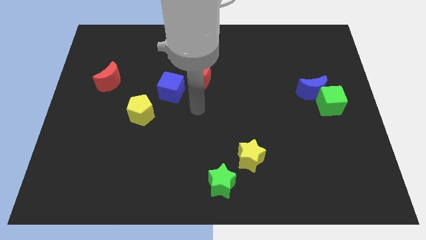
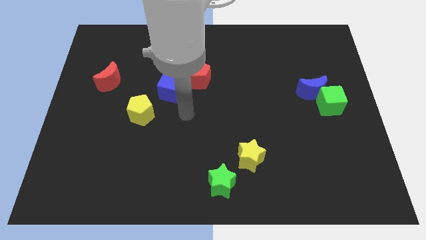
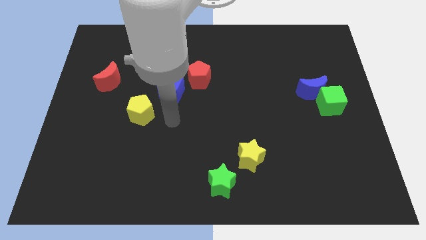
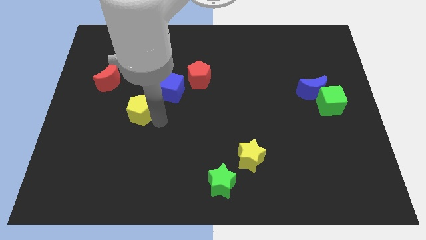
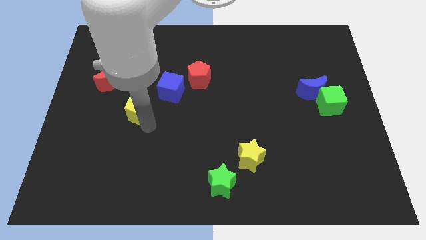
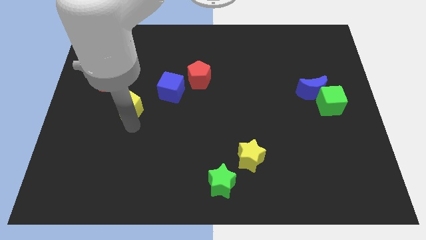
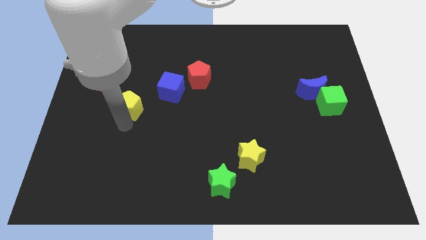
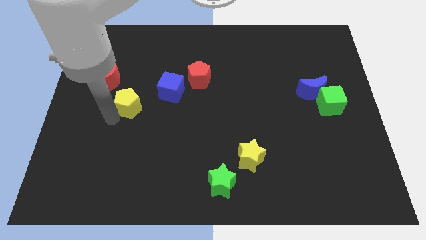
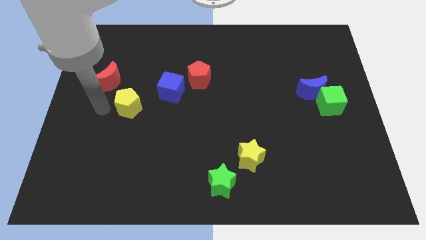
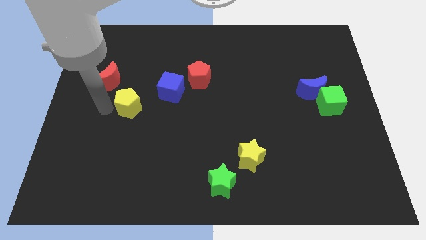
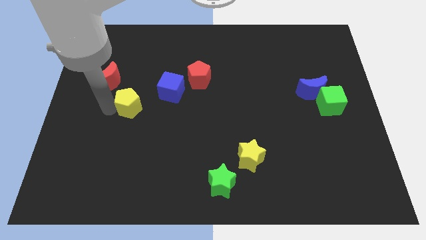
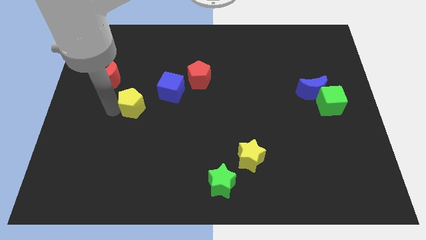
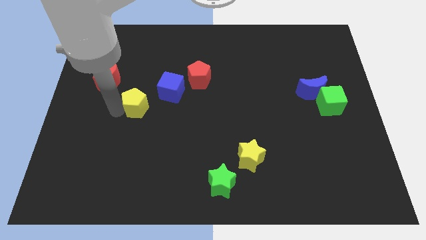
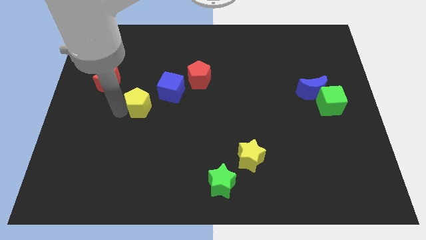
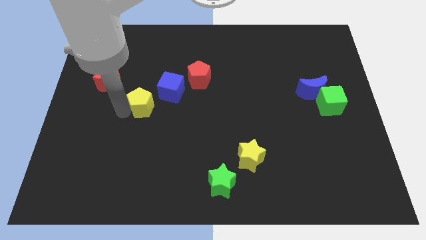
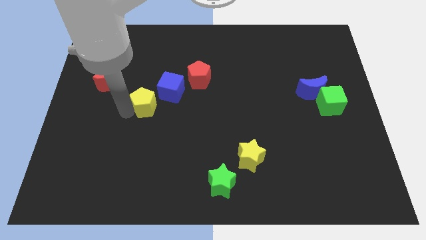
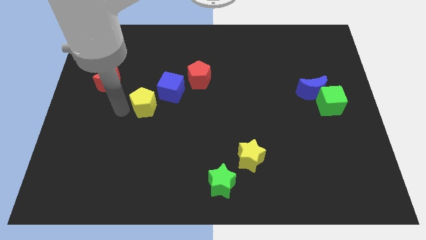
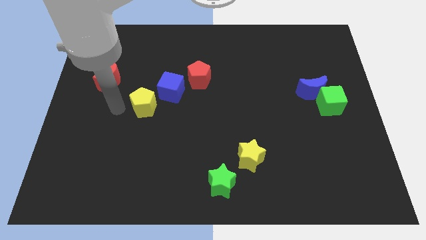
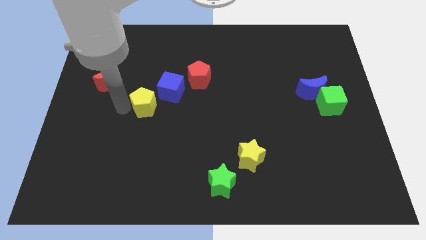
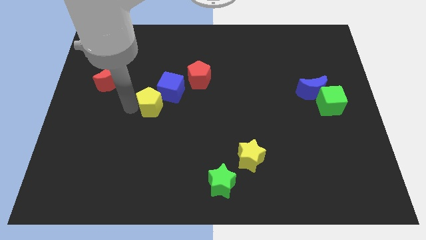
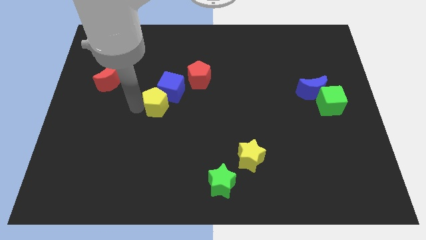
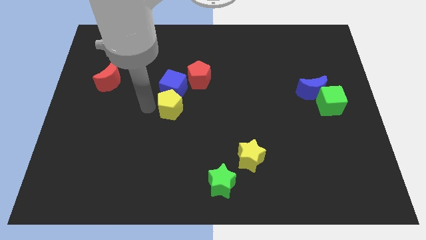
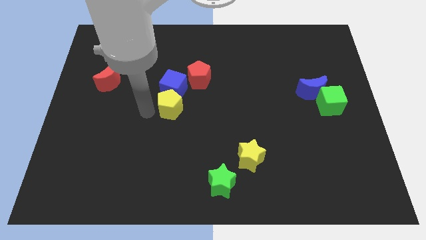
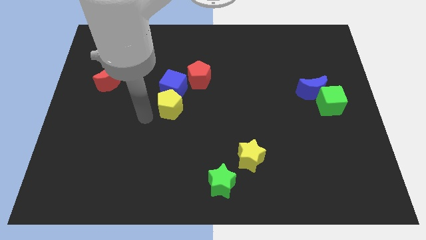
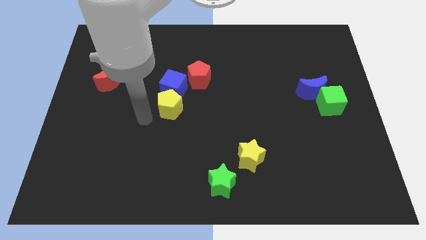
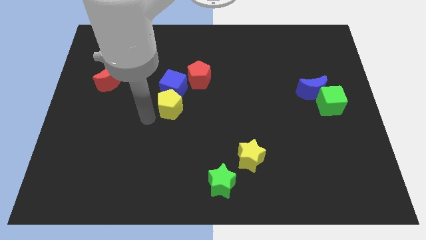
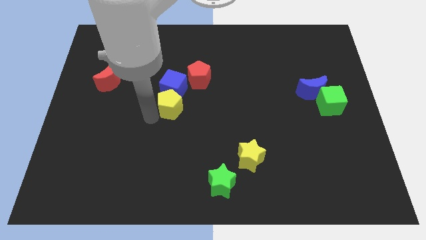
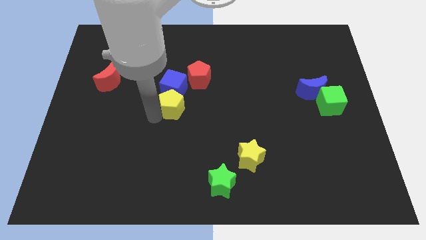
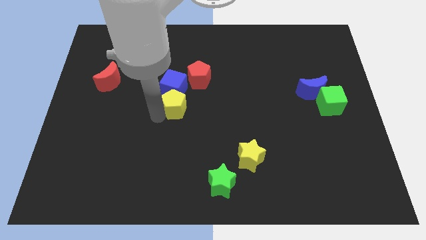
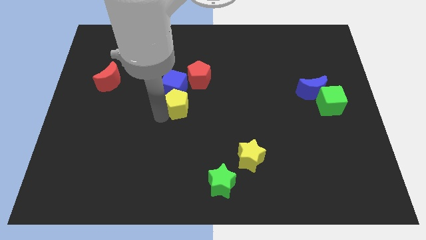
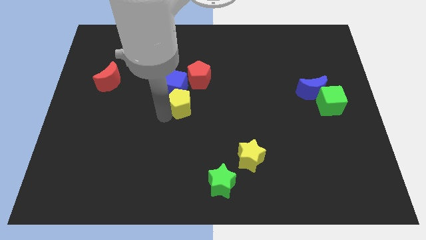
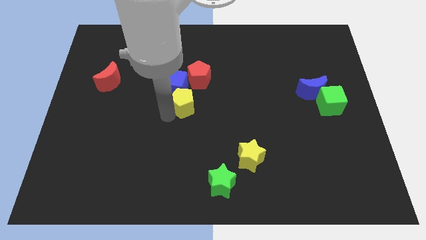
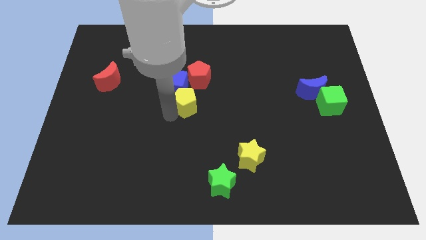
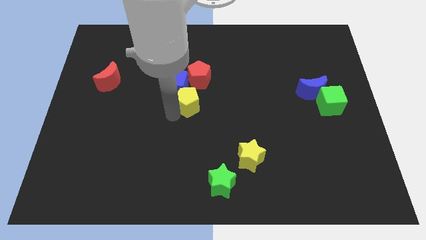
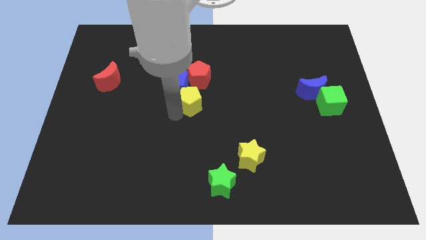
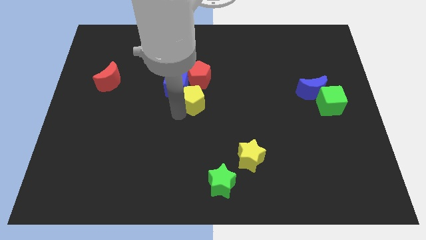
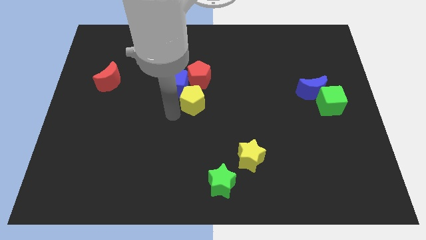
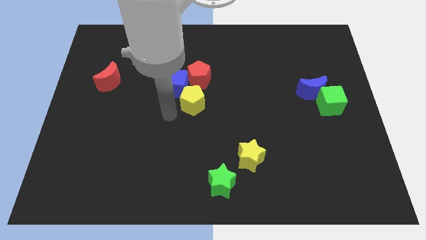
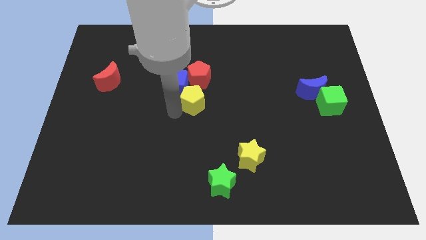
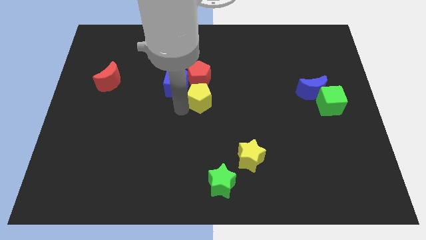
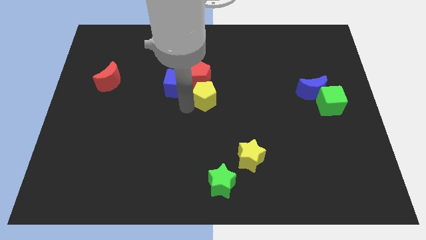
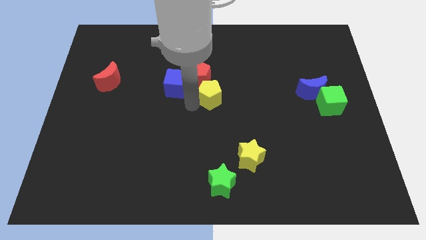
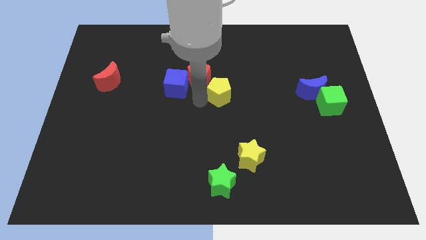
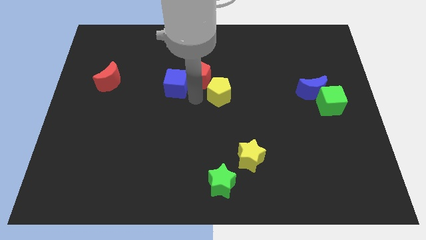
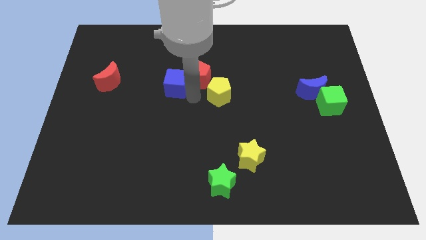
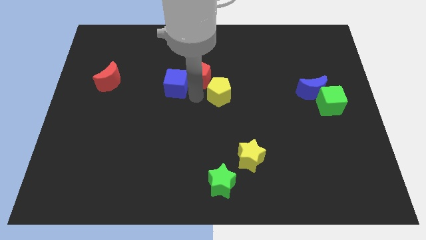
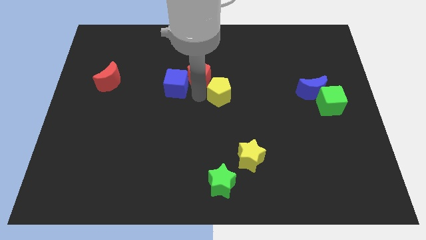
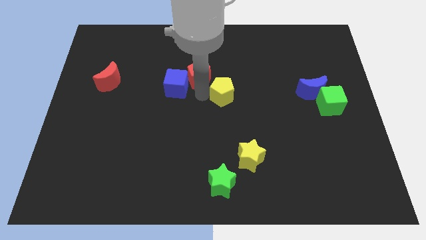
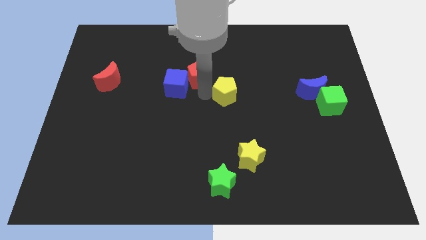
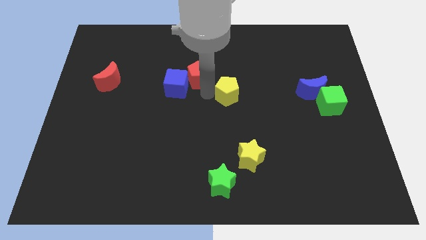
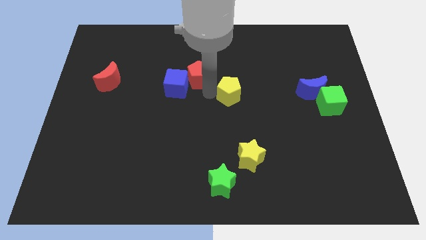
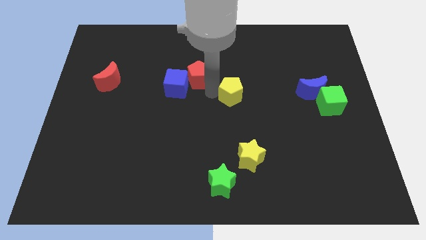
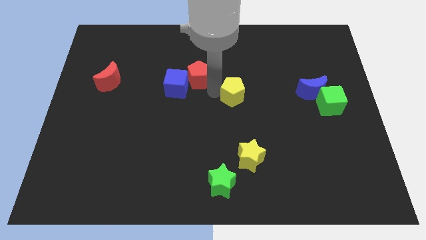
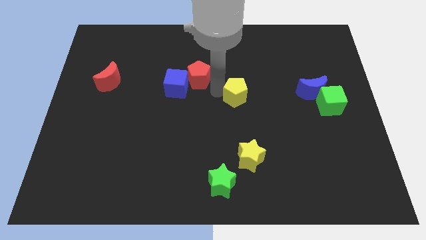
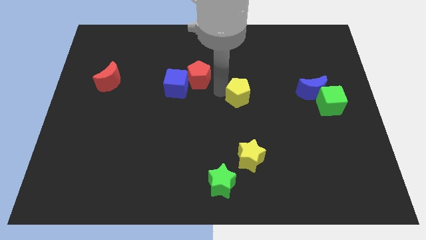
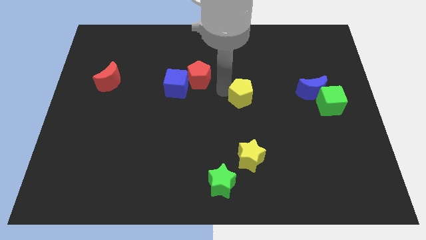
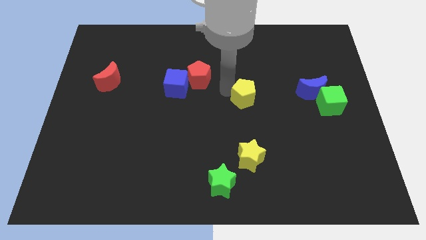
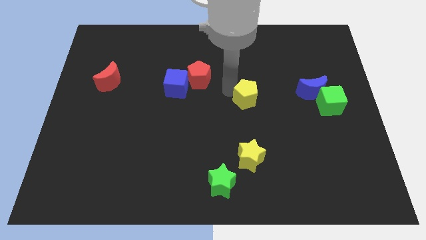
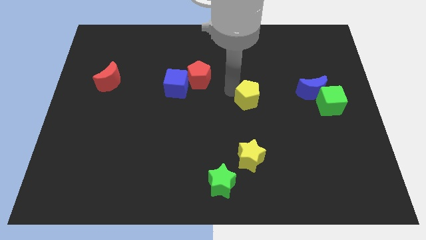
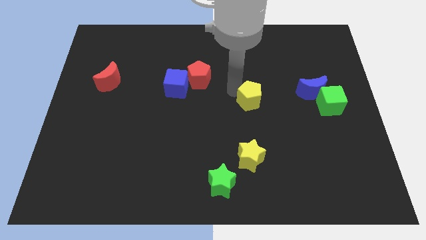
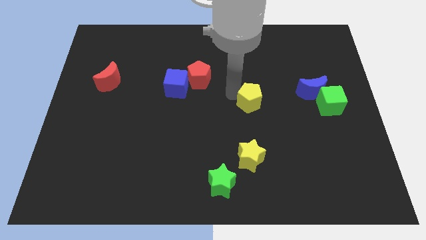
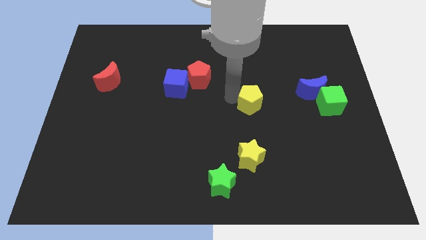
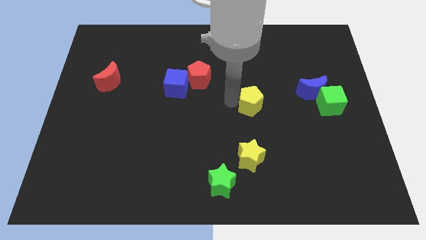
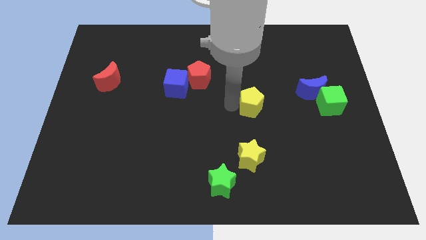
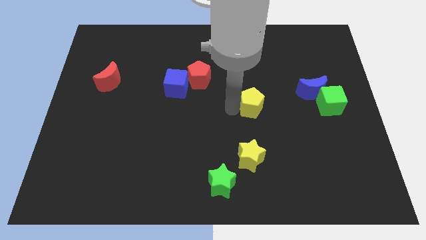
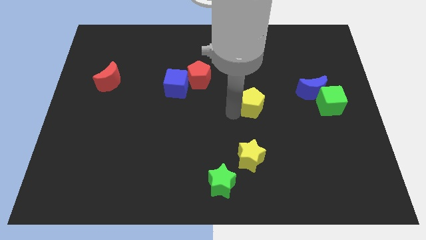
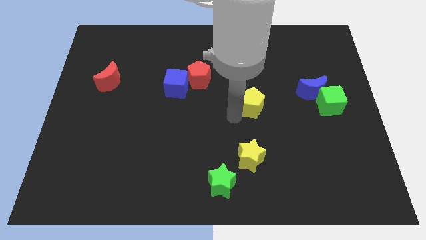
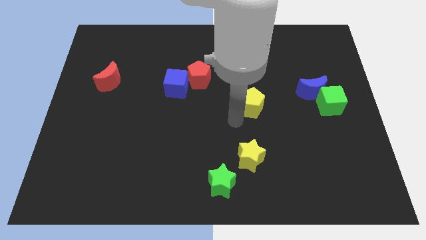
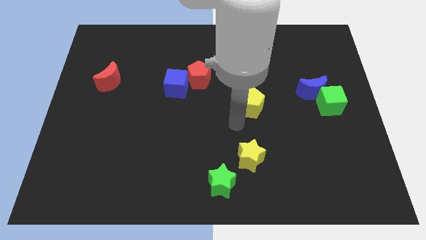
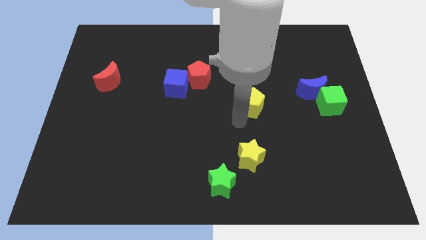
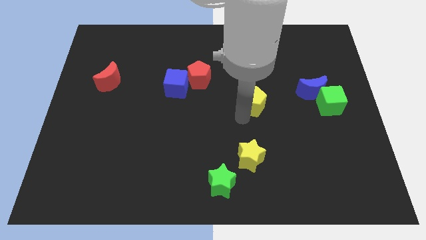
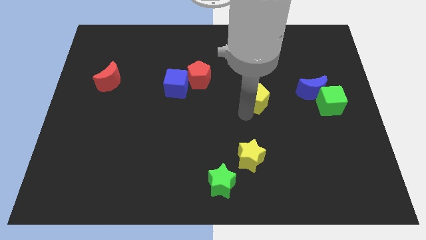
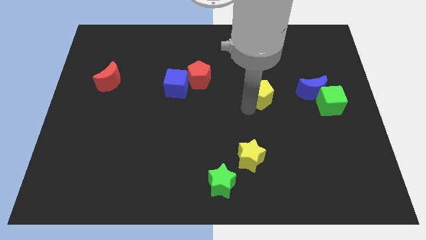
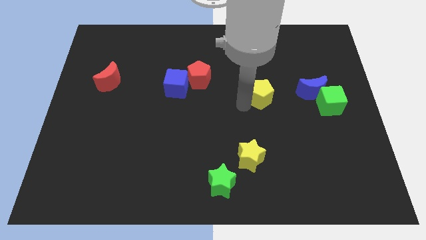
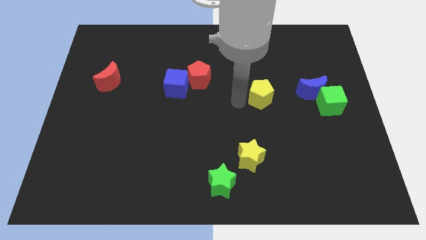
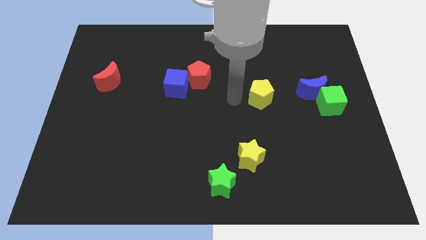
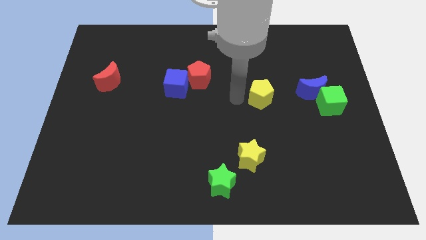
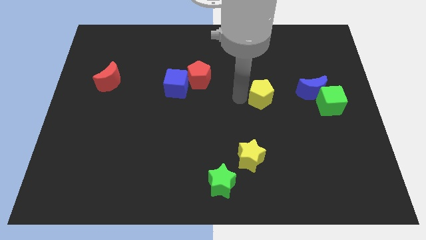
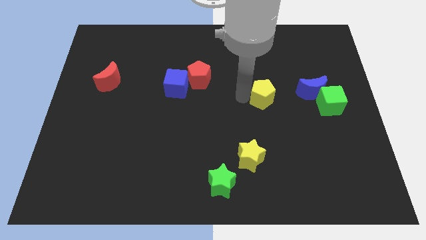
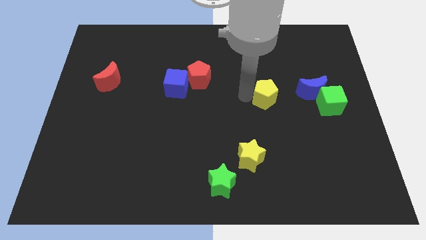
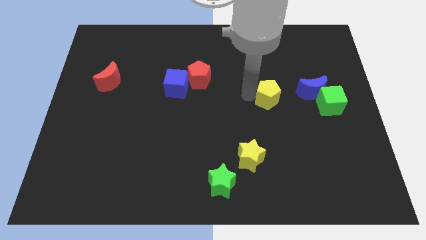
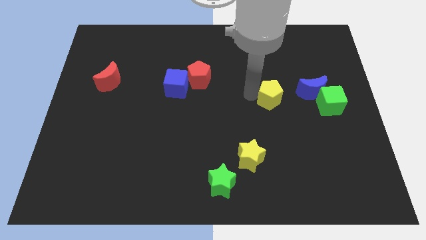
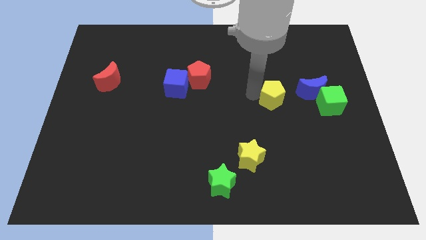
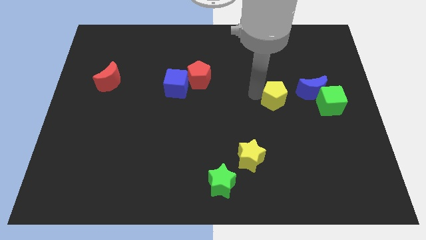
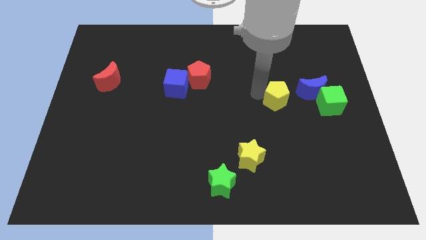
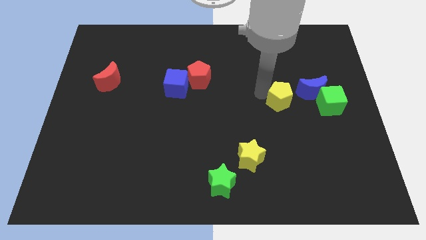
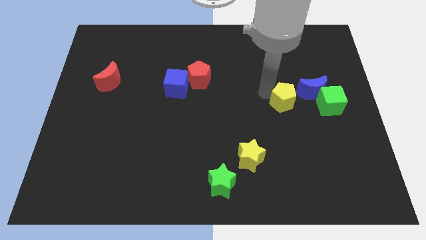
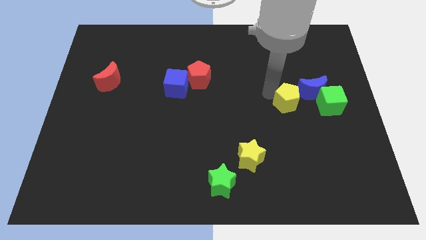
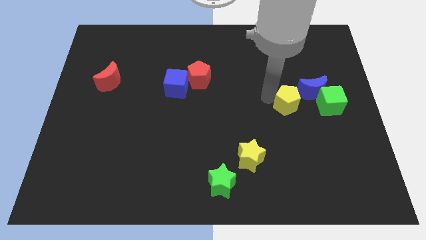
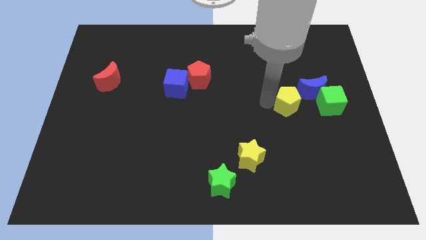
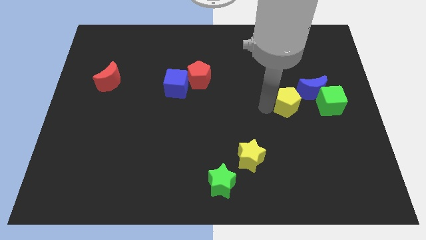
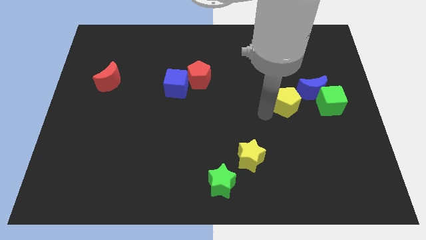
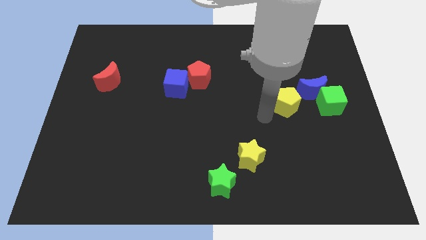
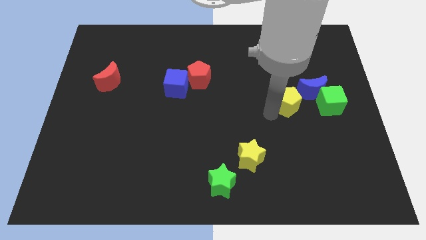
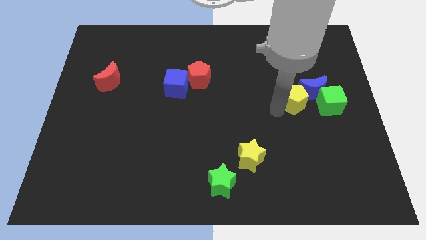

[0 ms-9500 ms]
push the yellow pentagon to the blue moon
